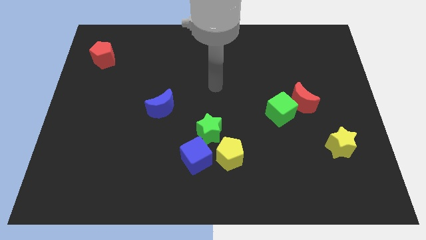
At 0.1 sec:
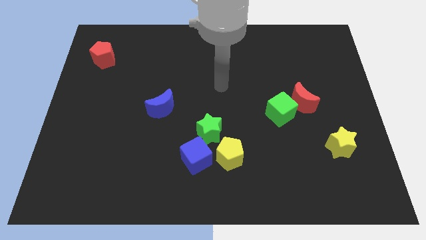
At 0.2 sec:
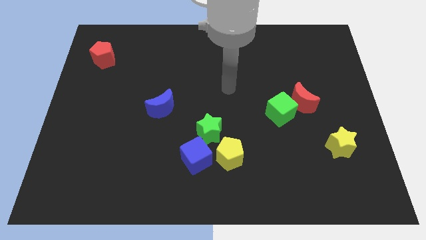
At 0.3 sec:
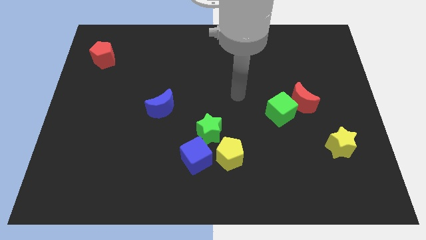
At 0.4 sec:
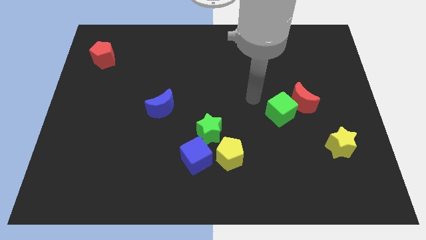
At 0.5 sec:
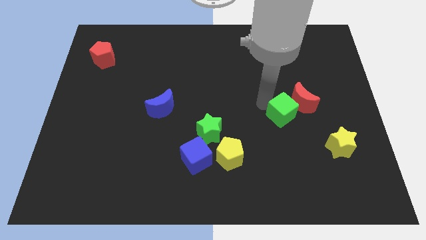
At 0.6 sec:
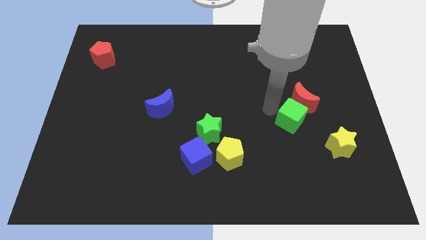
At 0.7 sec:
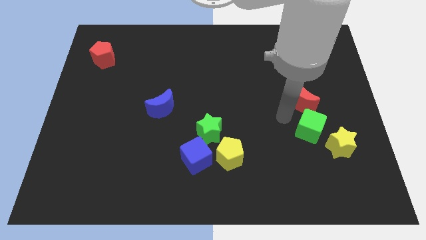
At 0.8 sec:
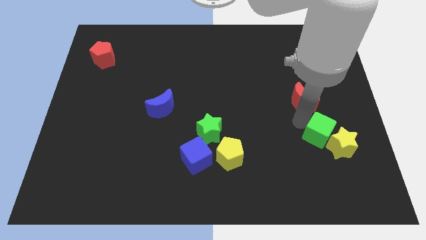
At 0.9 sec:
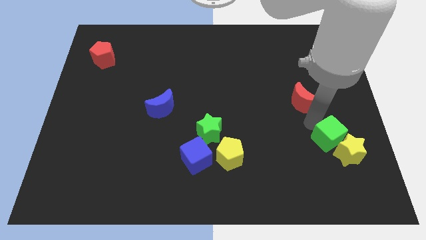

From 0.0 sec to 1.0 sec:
move the red moon away from the green cube

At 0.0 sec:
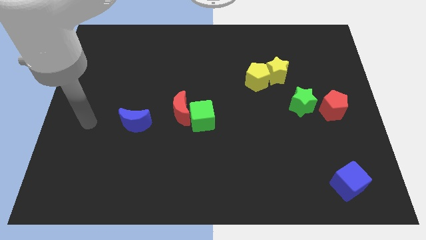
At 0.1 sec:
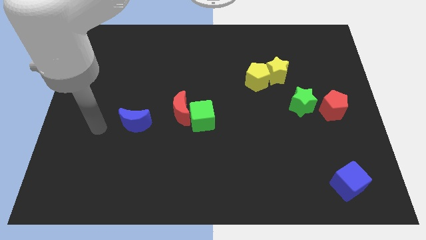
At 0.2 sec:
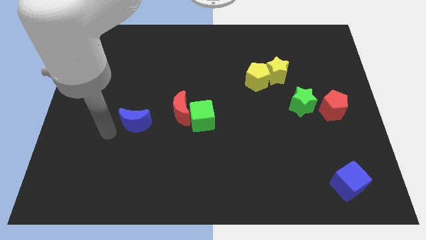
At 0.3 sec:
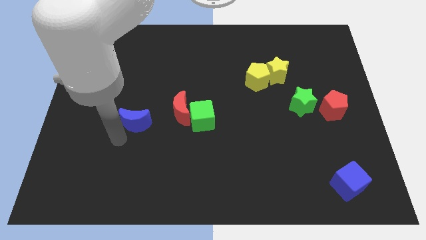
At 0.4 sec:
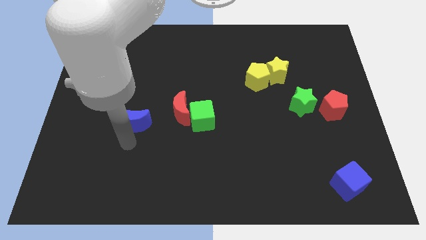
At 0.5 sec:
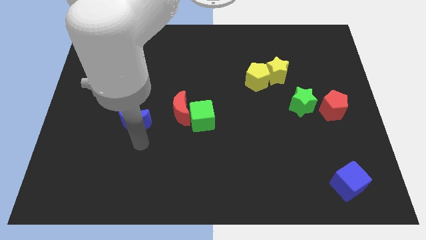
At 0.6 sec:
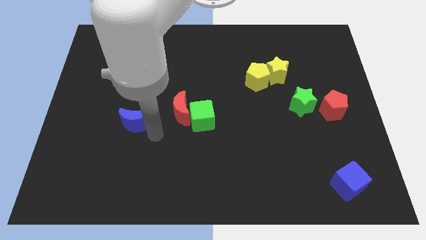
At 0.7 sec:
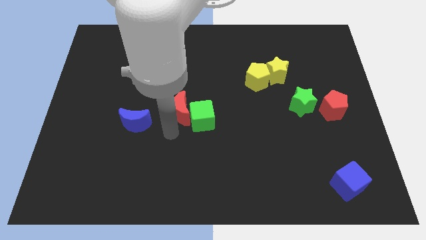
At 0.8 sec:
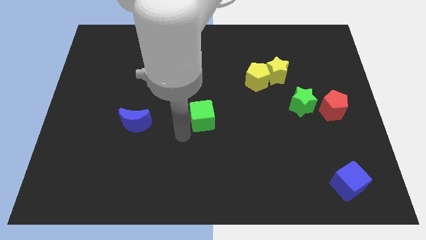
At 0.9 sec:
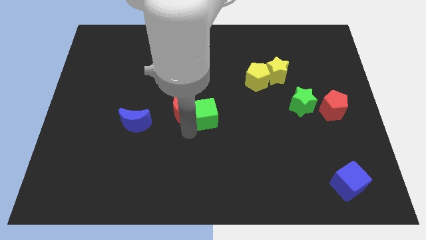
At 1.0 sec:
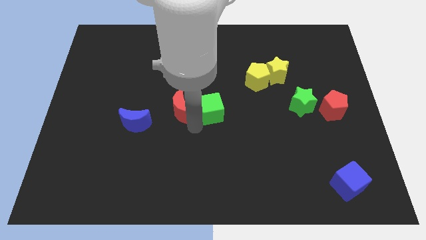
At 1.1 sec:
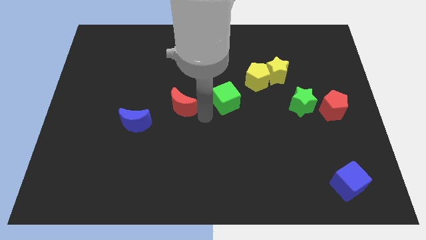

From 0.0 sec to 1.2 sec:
pull the red moon apart from the green cube

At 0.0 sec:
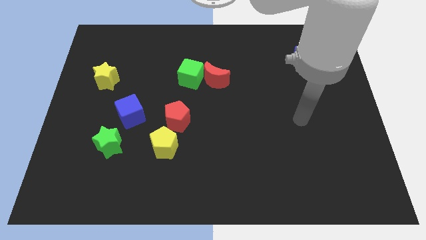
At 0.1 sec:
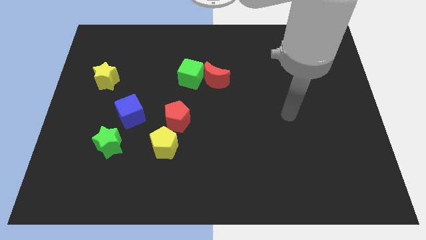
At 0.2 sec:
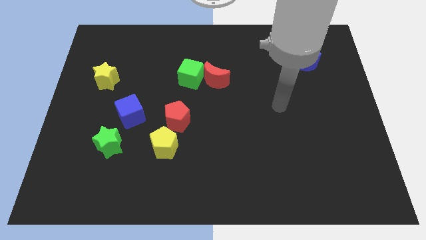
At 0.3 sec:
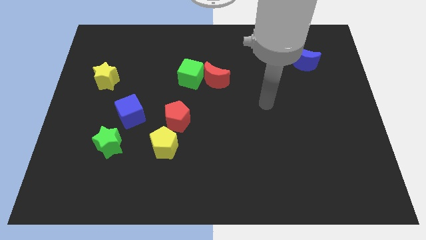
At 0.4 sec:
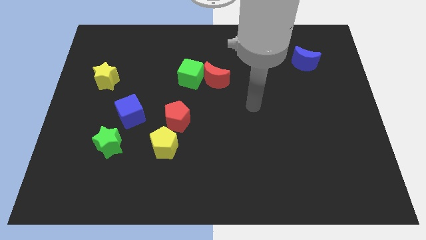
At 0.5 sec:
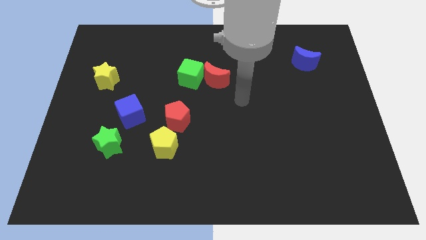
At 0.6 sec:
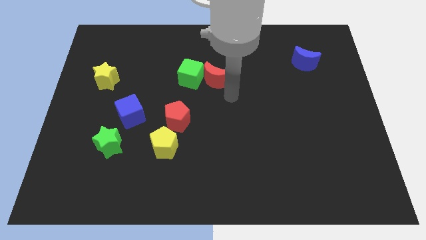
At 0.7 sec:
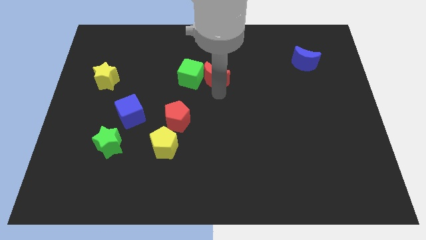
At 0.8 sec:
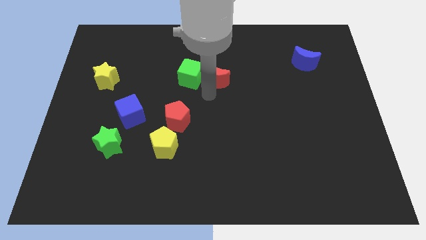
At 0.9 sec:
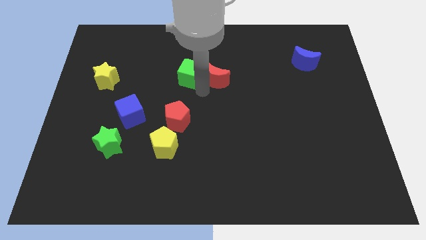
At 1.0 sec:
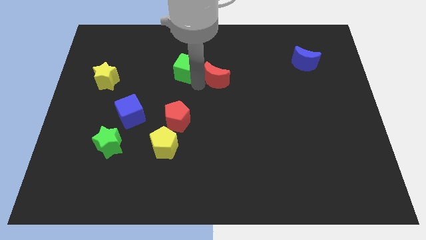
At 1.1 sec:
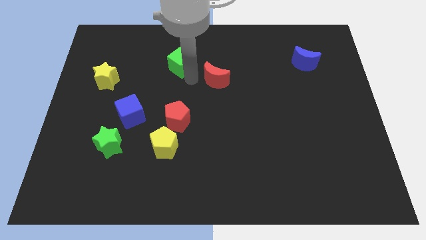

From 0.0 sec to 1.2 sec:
separate the red moon from the green cube

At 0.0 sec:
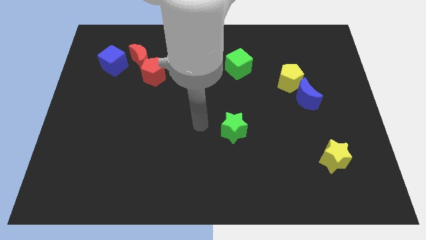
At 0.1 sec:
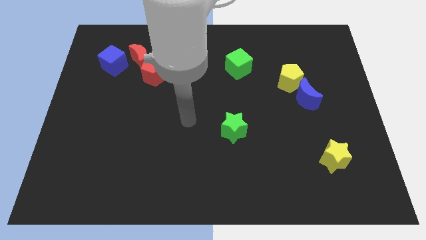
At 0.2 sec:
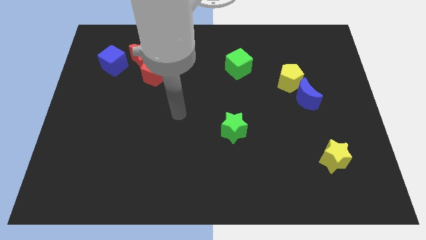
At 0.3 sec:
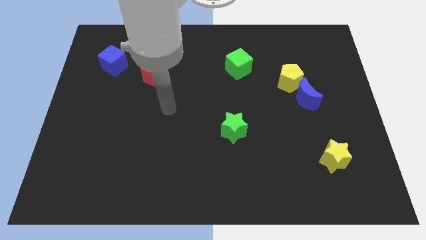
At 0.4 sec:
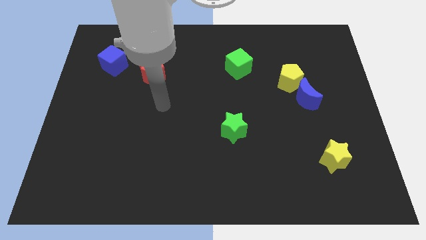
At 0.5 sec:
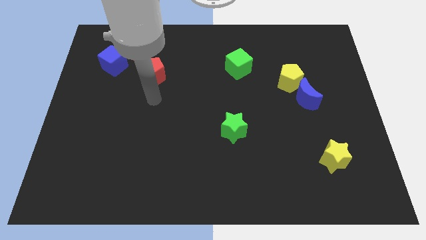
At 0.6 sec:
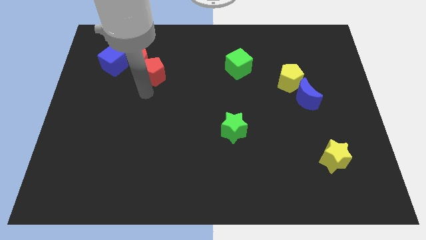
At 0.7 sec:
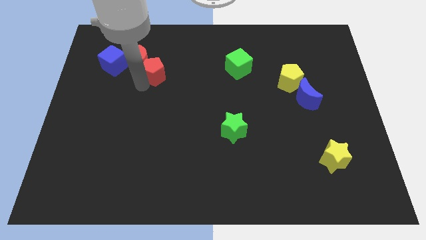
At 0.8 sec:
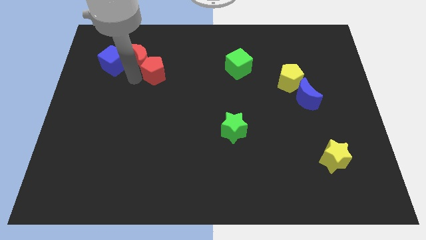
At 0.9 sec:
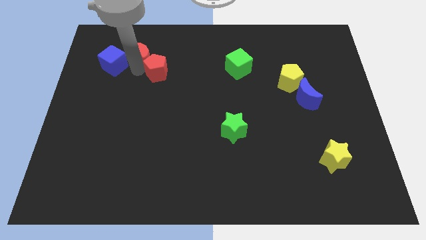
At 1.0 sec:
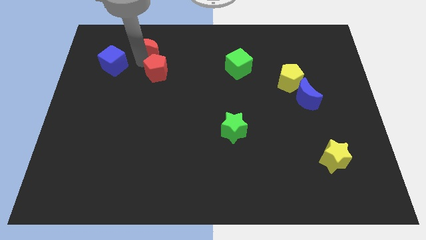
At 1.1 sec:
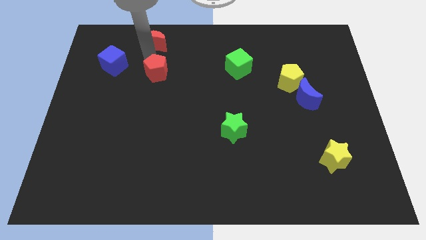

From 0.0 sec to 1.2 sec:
move the red pentagon away from the red moon

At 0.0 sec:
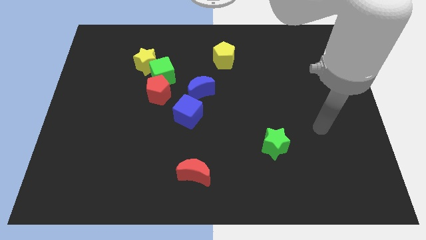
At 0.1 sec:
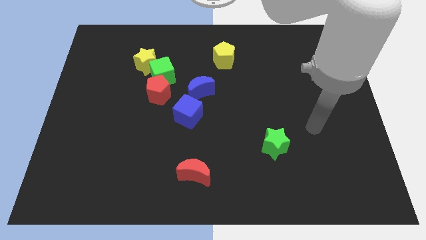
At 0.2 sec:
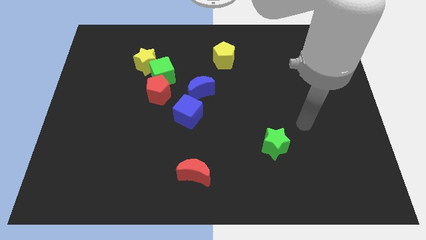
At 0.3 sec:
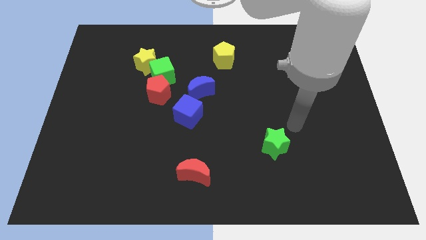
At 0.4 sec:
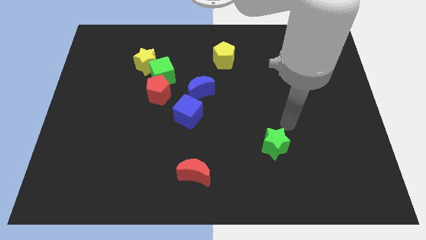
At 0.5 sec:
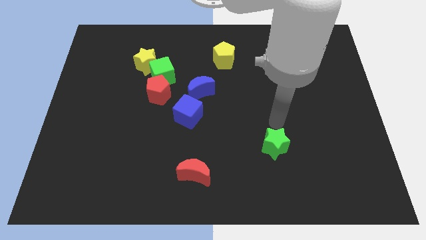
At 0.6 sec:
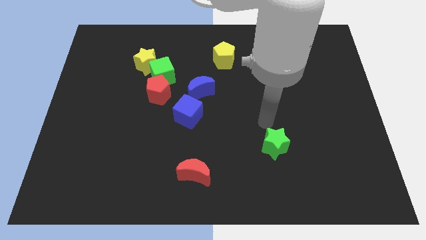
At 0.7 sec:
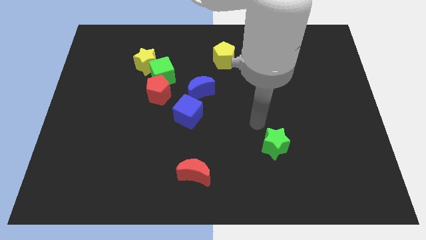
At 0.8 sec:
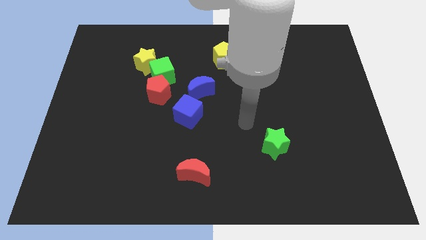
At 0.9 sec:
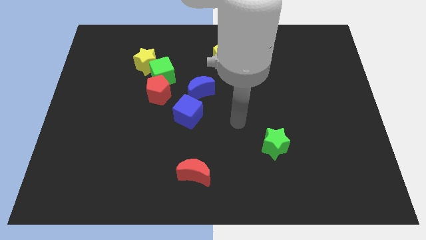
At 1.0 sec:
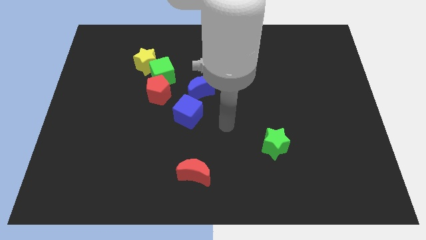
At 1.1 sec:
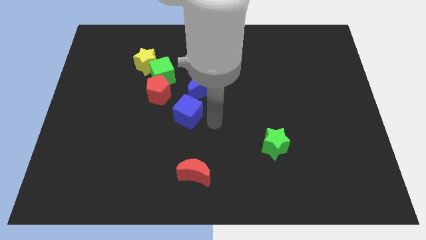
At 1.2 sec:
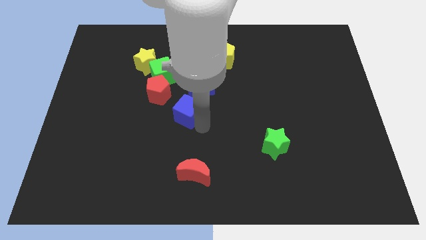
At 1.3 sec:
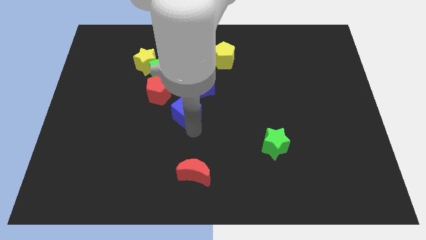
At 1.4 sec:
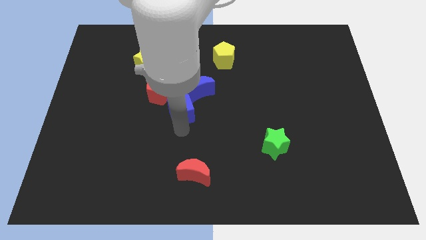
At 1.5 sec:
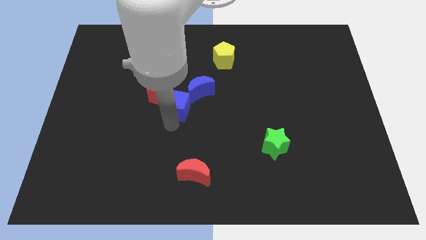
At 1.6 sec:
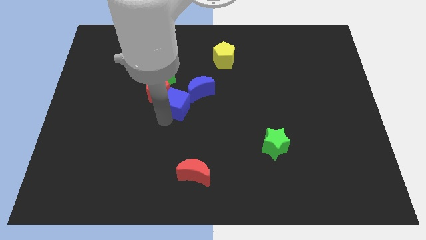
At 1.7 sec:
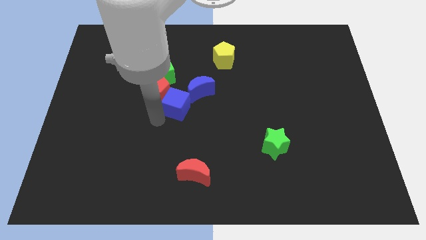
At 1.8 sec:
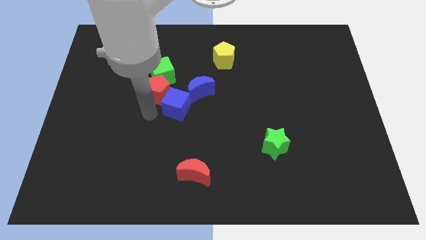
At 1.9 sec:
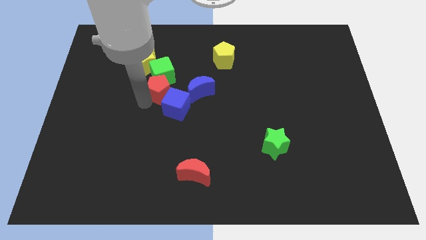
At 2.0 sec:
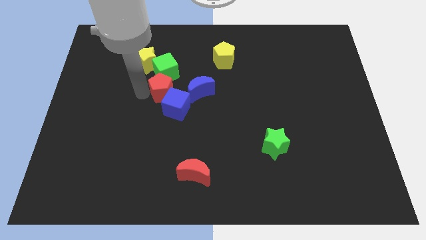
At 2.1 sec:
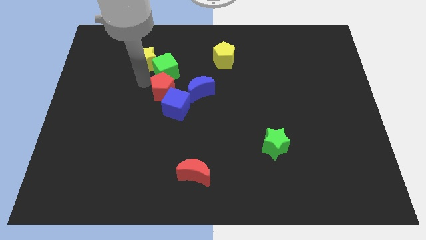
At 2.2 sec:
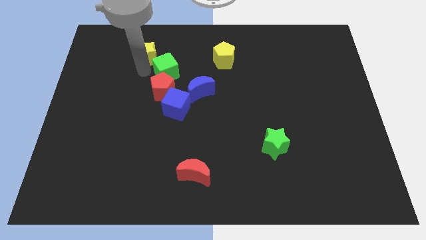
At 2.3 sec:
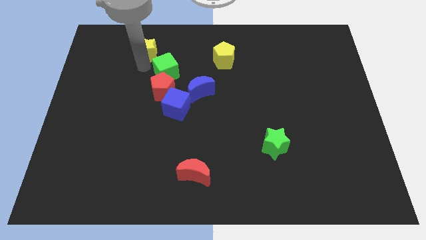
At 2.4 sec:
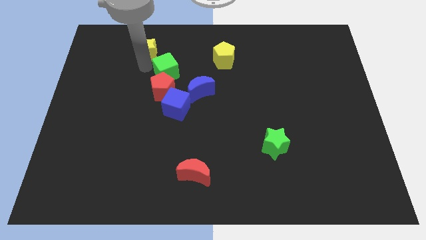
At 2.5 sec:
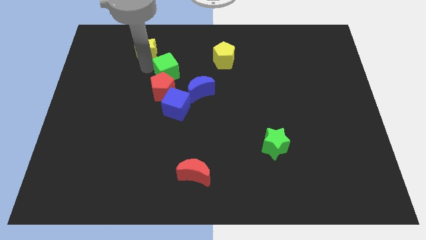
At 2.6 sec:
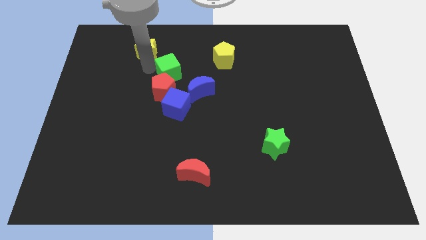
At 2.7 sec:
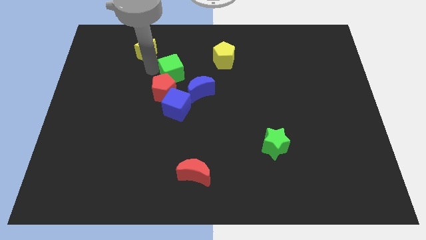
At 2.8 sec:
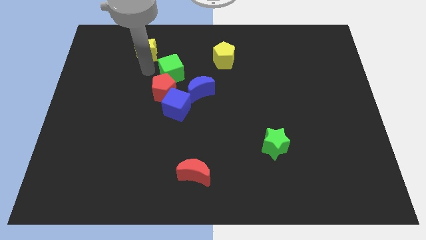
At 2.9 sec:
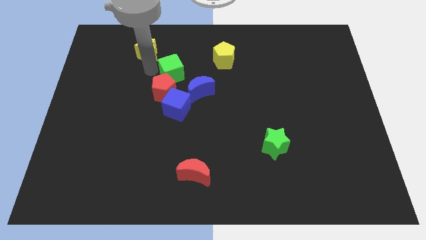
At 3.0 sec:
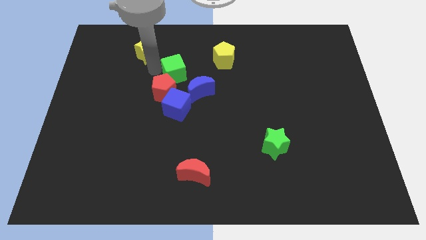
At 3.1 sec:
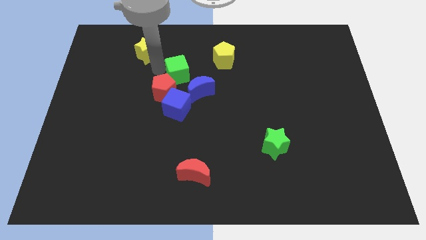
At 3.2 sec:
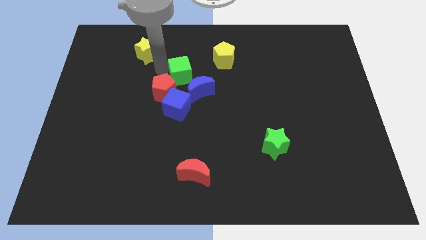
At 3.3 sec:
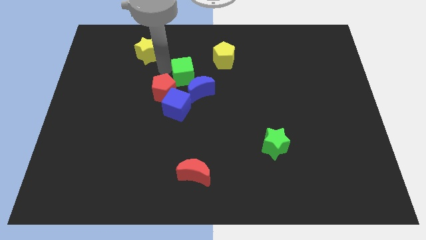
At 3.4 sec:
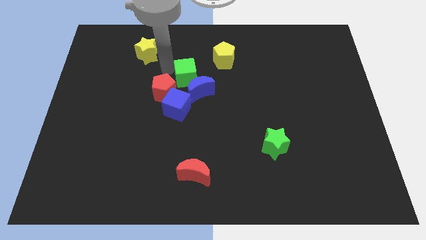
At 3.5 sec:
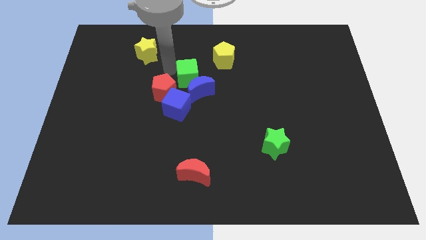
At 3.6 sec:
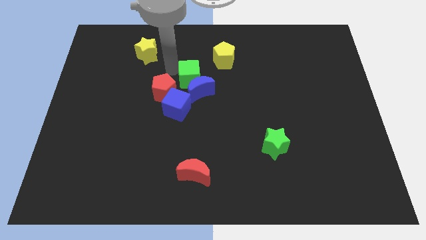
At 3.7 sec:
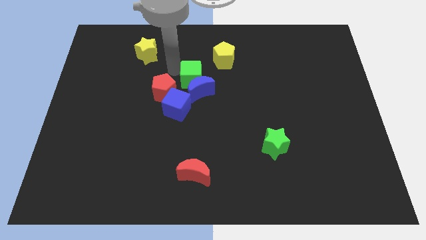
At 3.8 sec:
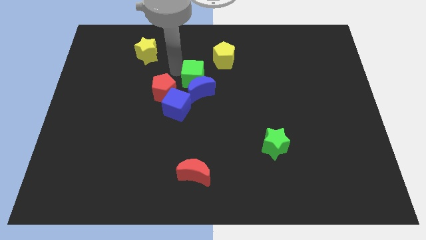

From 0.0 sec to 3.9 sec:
pull the green cube apart from the red pentagon and yellow star

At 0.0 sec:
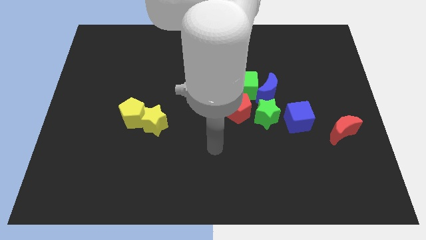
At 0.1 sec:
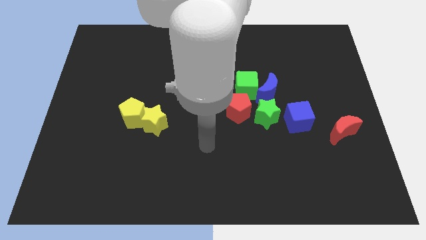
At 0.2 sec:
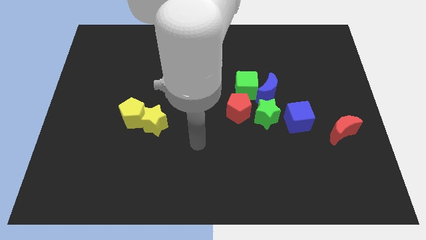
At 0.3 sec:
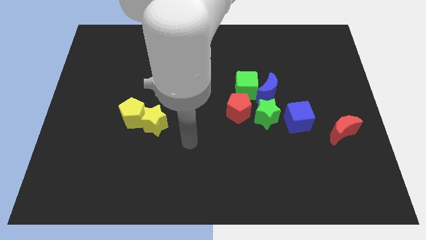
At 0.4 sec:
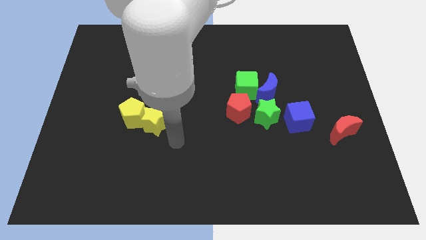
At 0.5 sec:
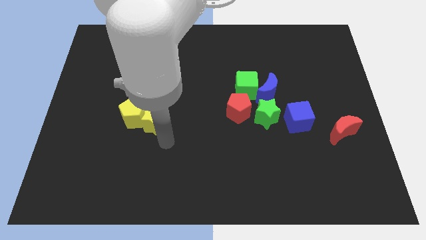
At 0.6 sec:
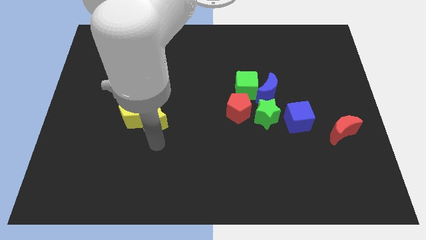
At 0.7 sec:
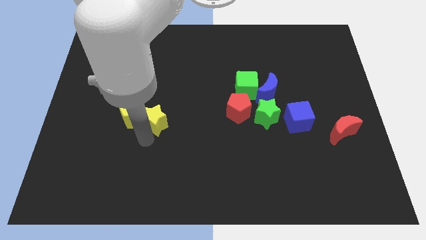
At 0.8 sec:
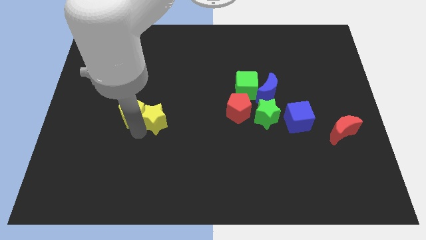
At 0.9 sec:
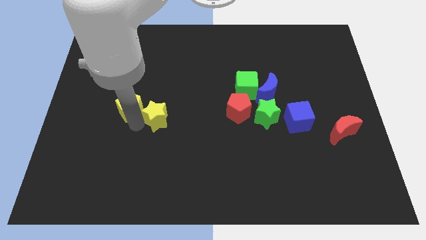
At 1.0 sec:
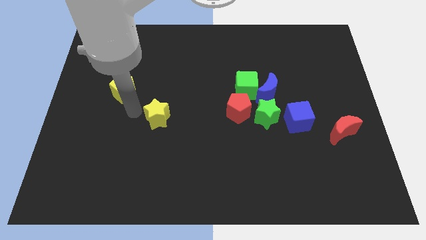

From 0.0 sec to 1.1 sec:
move the yellow star away from the yellow pentagon
